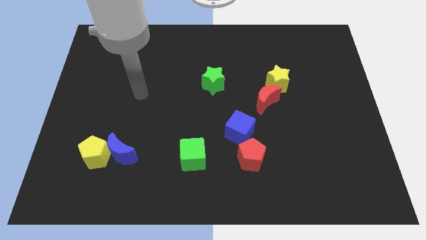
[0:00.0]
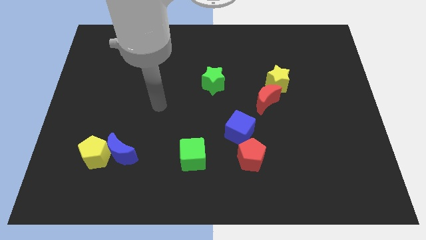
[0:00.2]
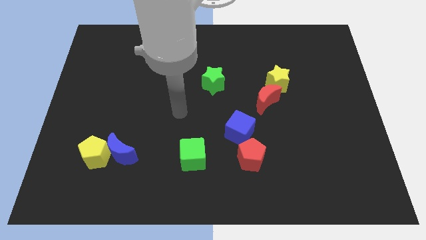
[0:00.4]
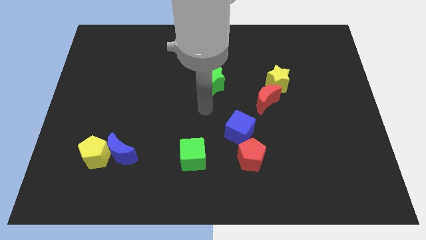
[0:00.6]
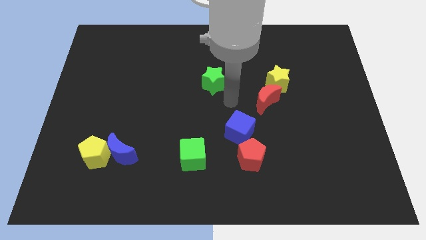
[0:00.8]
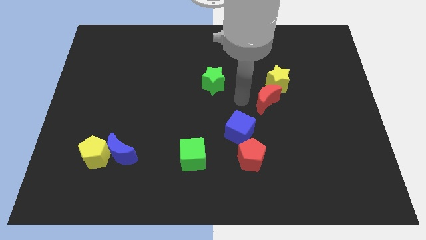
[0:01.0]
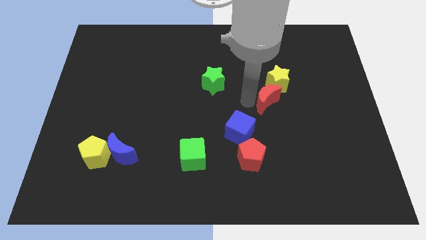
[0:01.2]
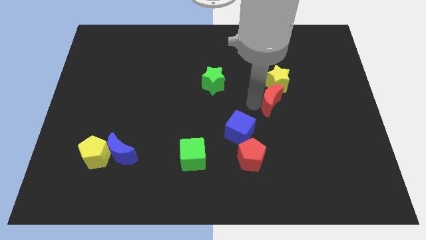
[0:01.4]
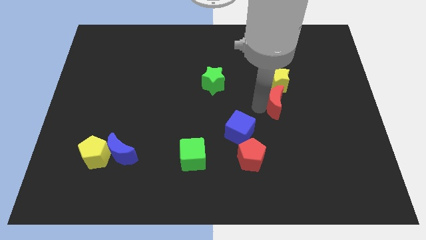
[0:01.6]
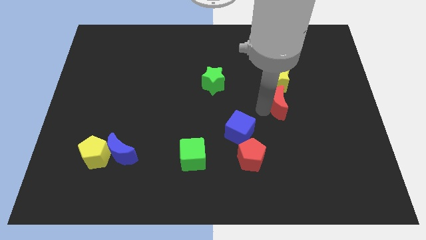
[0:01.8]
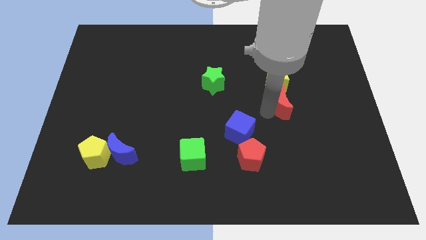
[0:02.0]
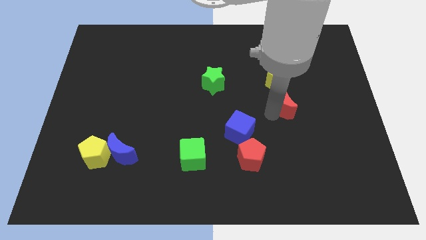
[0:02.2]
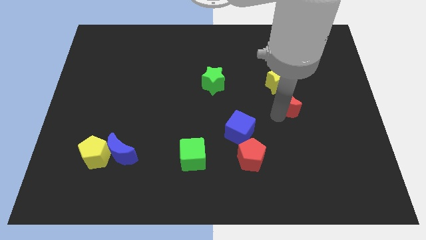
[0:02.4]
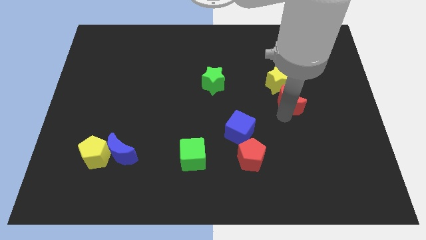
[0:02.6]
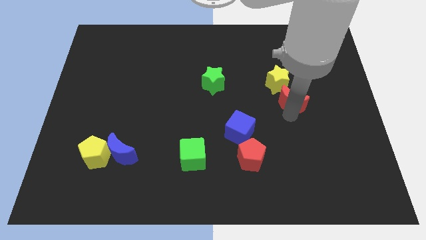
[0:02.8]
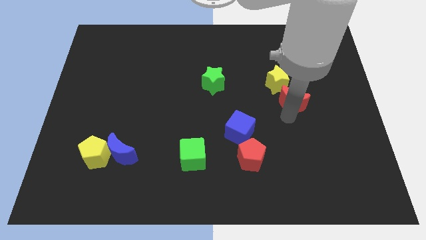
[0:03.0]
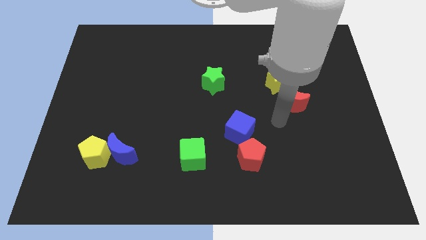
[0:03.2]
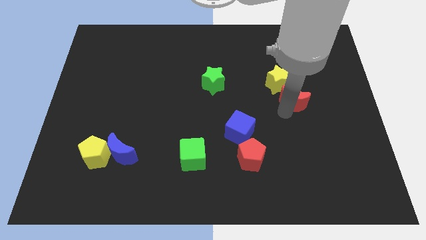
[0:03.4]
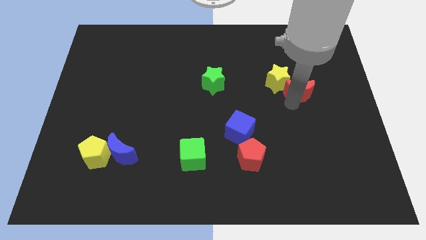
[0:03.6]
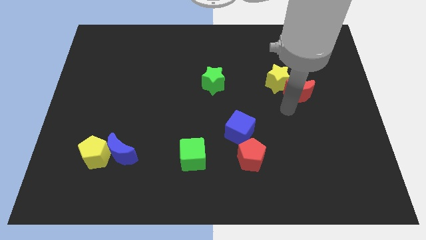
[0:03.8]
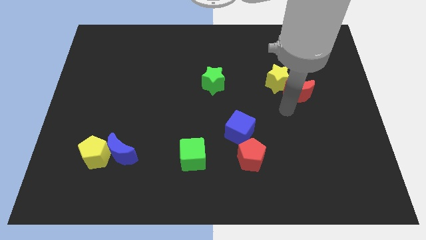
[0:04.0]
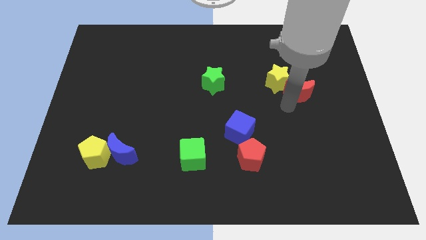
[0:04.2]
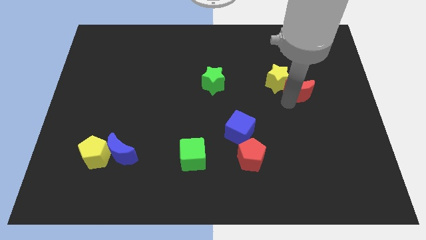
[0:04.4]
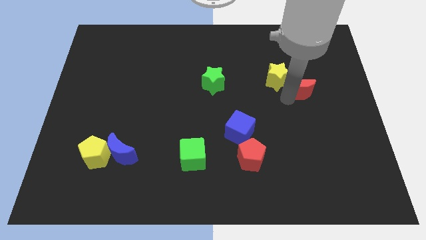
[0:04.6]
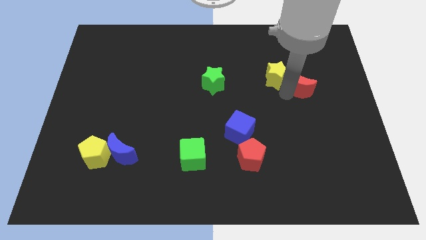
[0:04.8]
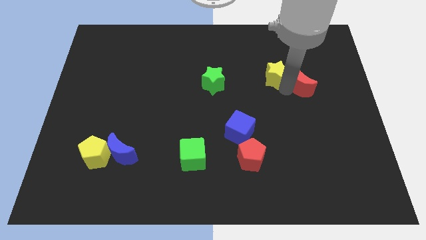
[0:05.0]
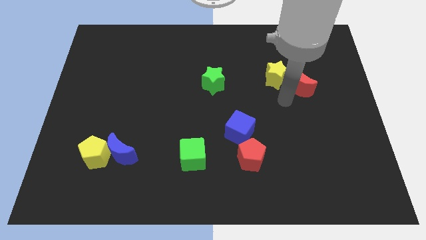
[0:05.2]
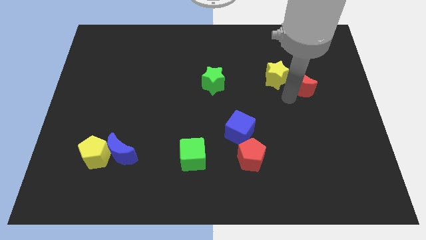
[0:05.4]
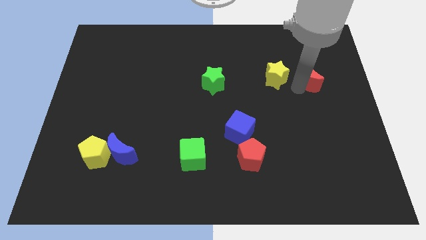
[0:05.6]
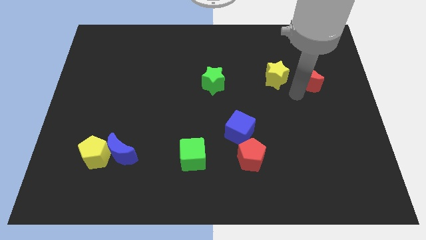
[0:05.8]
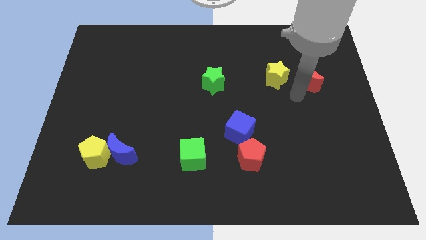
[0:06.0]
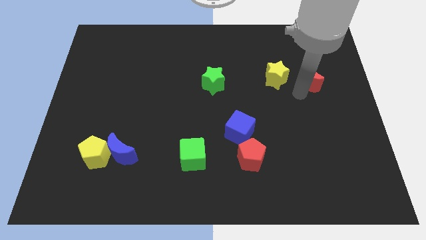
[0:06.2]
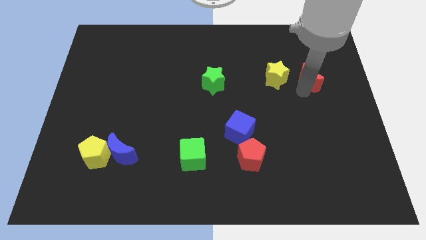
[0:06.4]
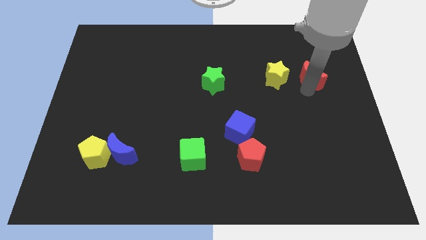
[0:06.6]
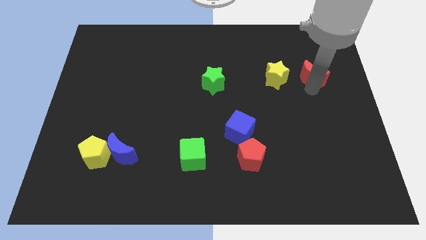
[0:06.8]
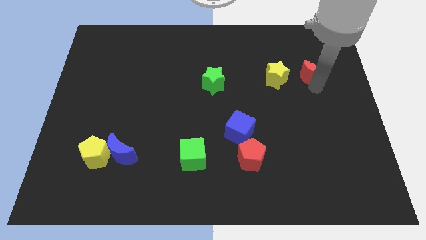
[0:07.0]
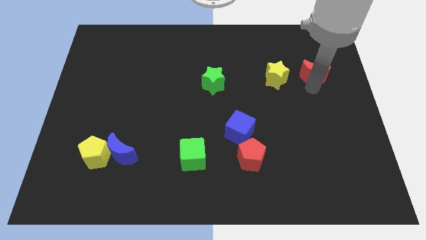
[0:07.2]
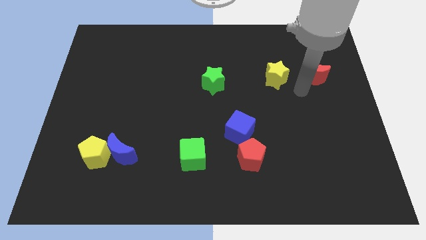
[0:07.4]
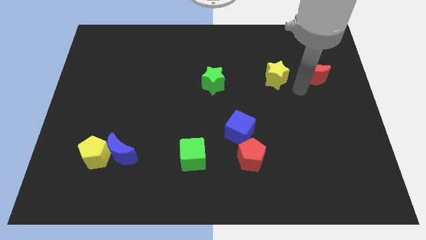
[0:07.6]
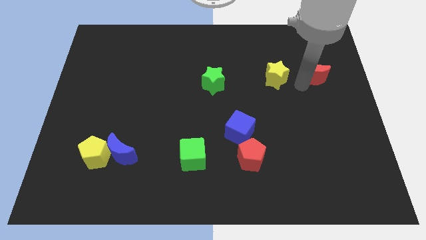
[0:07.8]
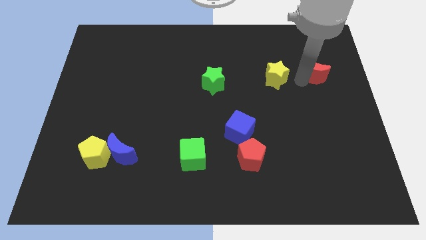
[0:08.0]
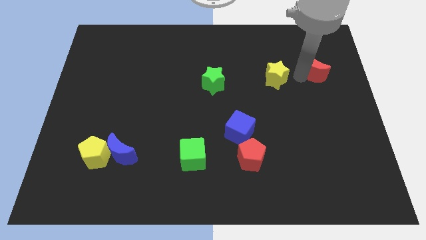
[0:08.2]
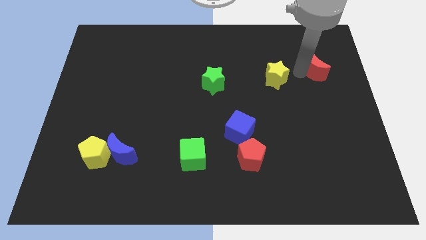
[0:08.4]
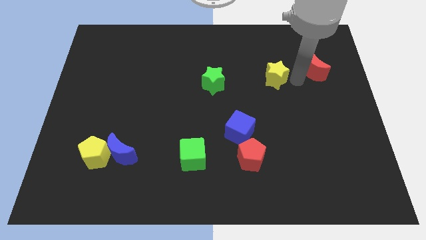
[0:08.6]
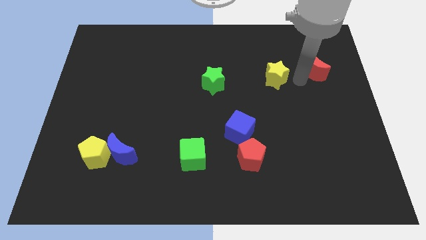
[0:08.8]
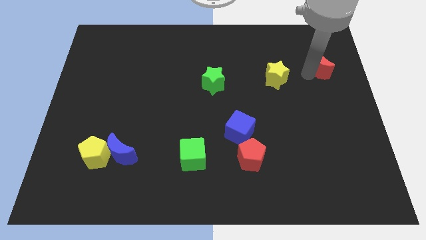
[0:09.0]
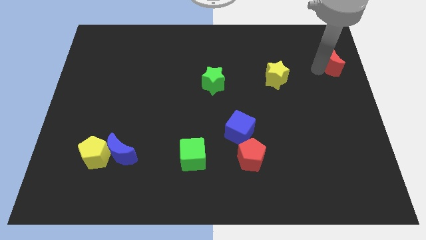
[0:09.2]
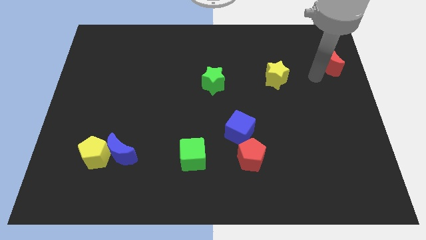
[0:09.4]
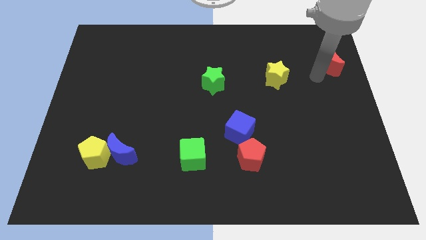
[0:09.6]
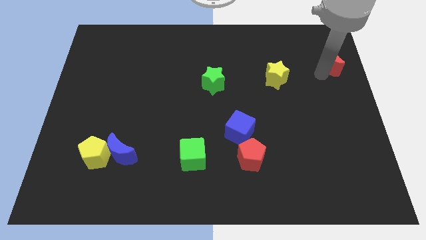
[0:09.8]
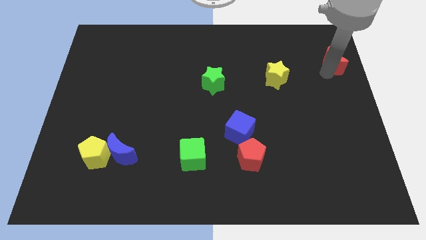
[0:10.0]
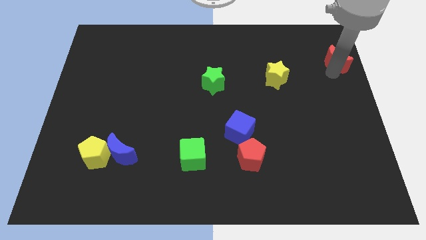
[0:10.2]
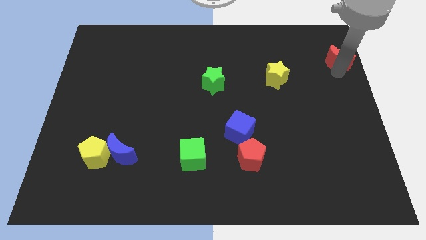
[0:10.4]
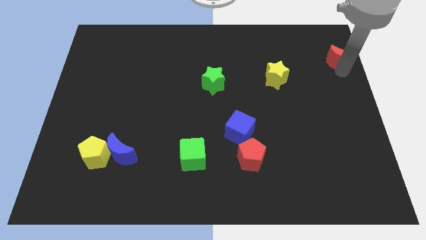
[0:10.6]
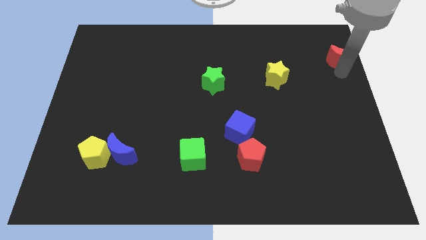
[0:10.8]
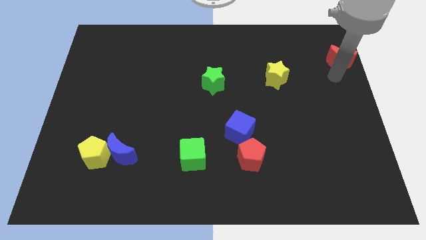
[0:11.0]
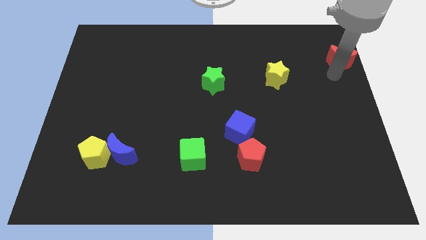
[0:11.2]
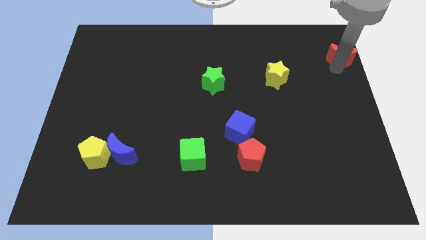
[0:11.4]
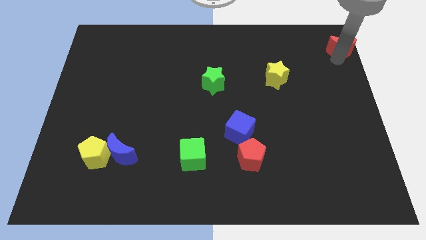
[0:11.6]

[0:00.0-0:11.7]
put the red moon to the upper right corner

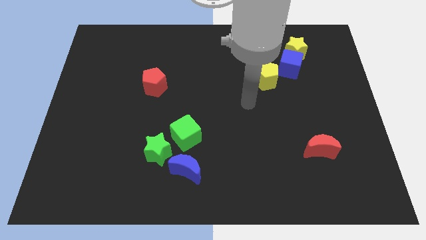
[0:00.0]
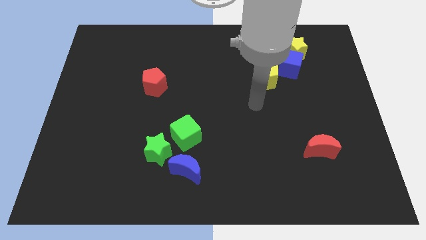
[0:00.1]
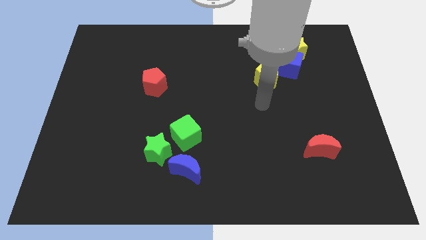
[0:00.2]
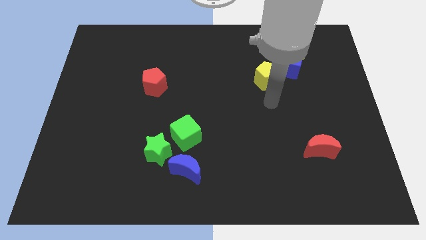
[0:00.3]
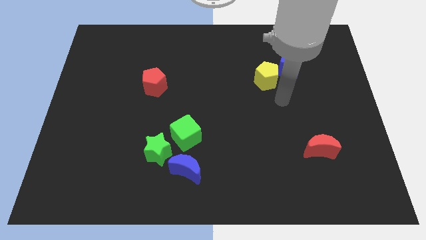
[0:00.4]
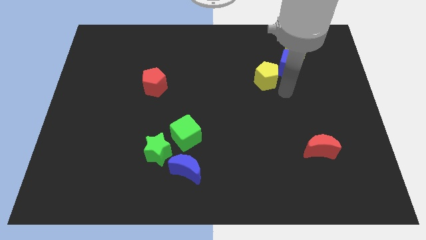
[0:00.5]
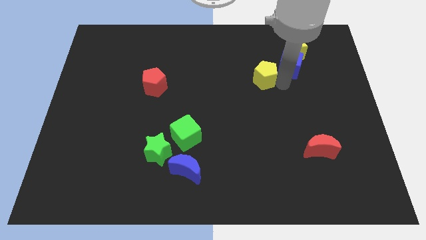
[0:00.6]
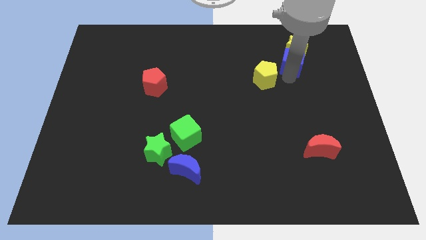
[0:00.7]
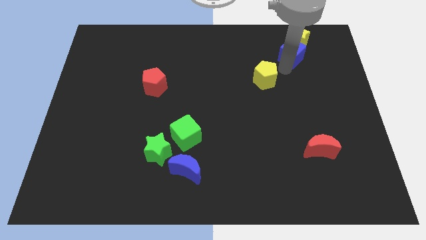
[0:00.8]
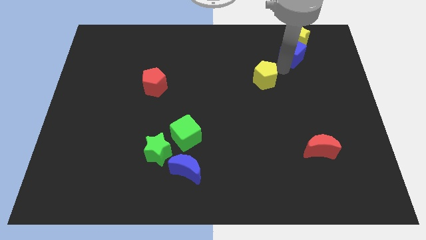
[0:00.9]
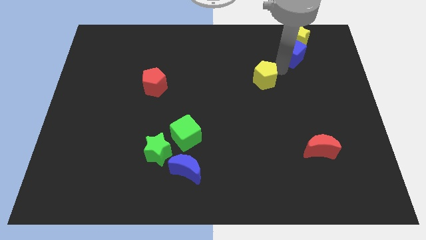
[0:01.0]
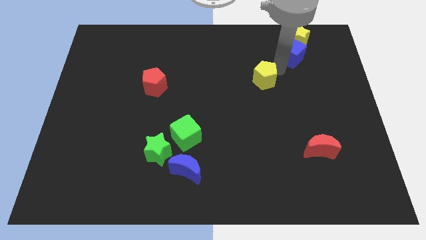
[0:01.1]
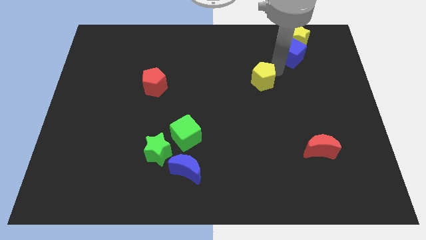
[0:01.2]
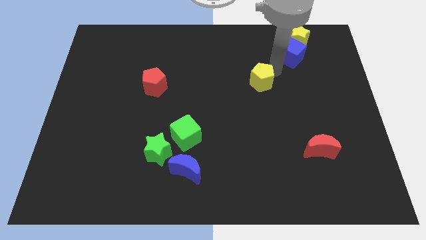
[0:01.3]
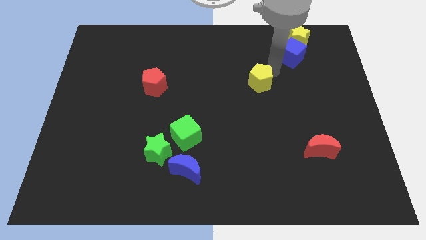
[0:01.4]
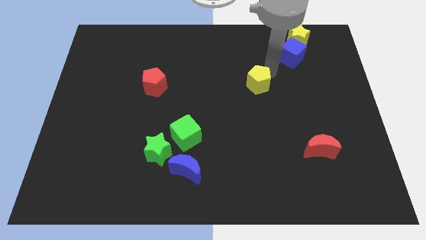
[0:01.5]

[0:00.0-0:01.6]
slide the yellow pentagon to the middle of the board
